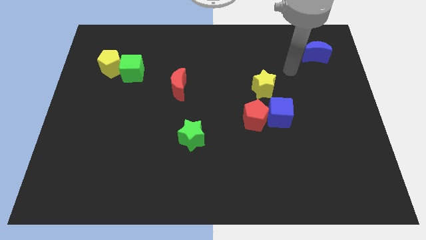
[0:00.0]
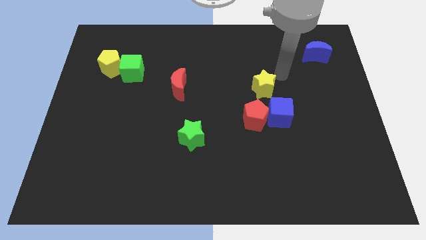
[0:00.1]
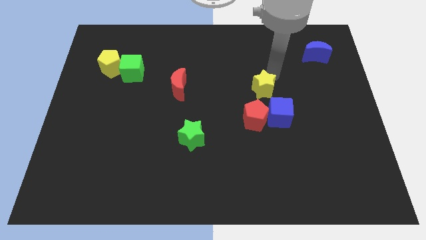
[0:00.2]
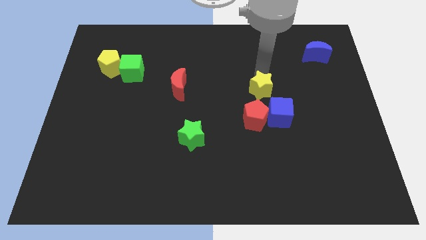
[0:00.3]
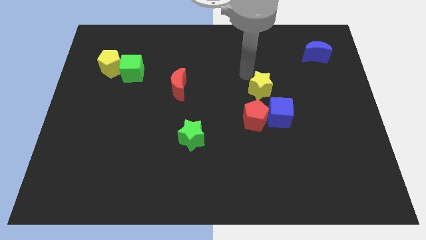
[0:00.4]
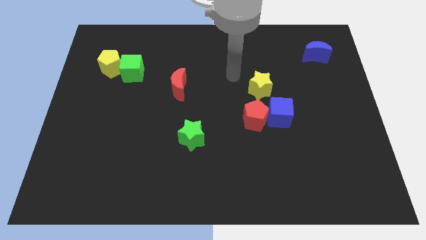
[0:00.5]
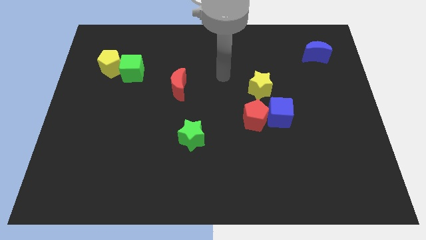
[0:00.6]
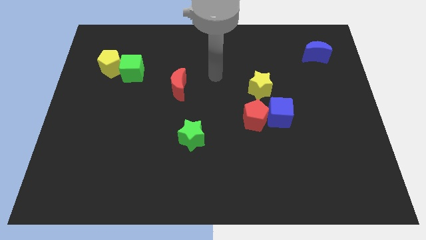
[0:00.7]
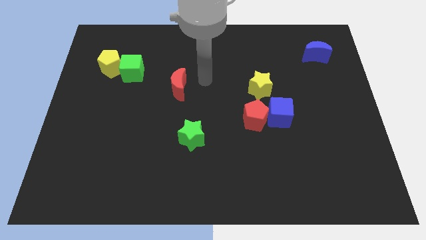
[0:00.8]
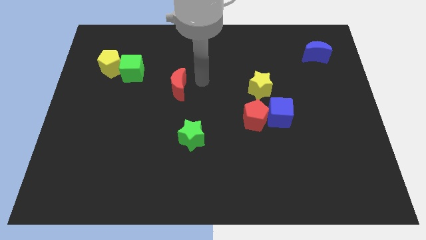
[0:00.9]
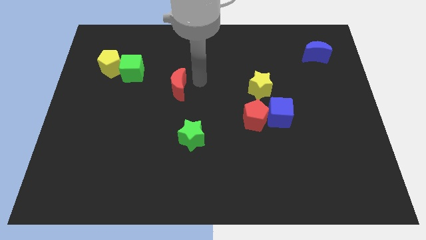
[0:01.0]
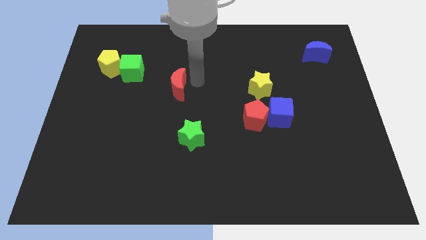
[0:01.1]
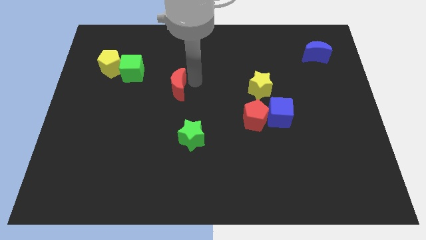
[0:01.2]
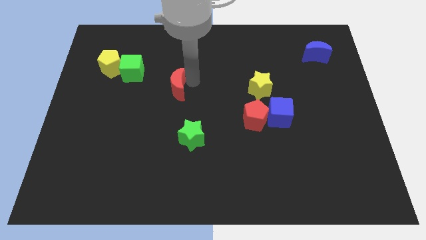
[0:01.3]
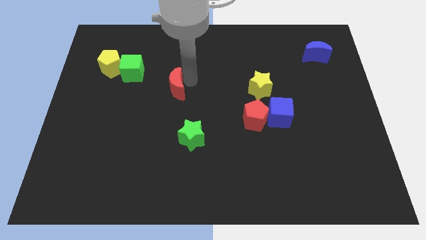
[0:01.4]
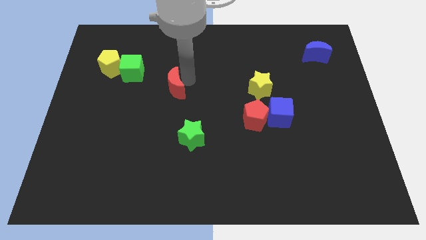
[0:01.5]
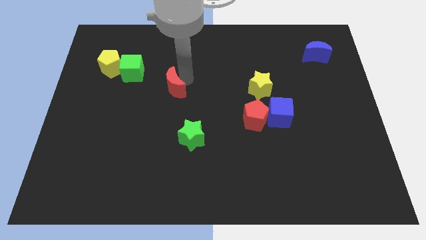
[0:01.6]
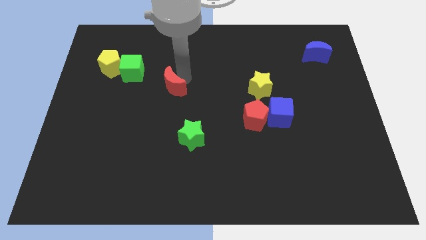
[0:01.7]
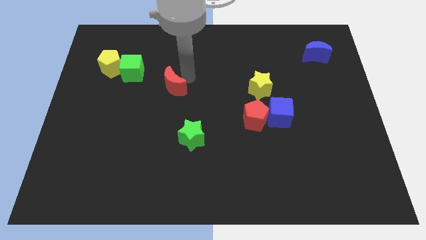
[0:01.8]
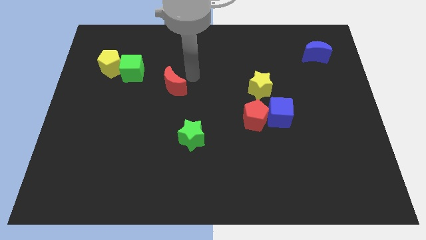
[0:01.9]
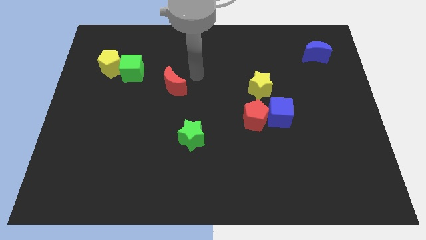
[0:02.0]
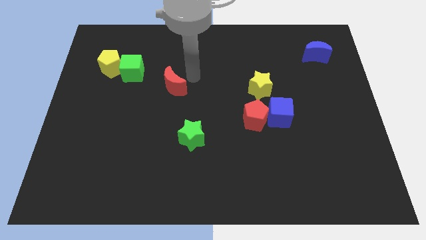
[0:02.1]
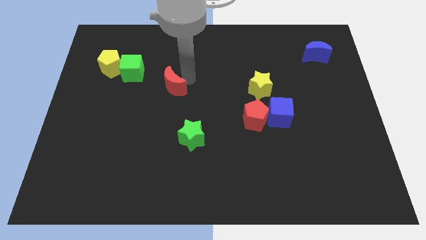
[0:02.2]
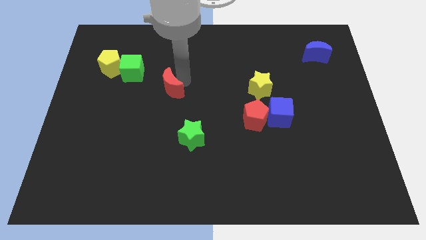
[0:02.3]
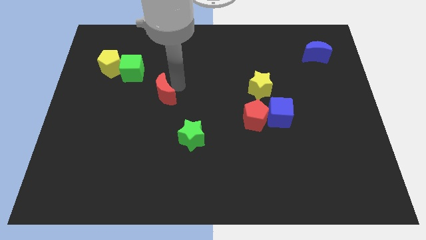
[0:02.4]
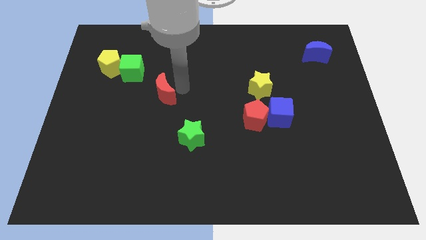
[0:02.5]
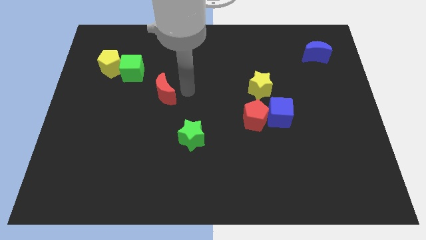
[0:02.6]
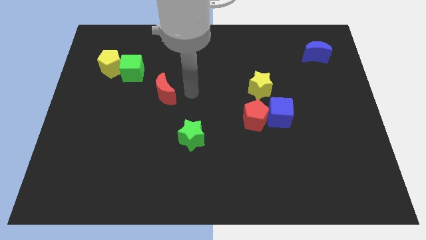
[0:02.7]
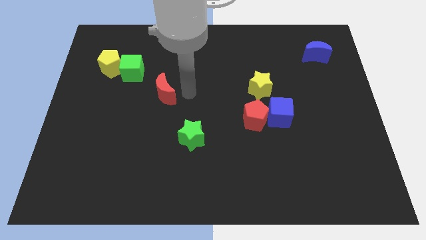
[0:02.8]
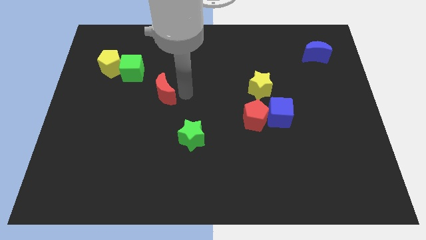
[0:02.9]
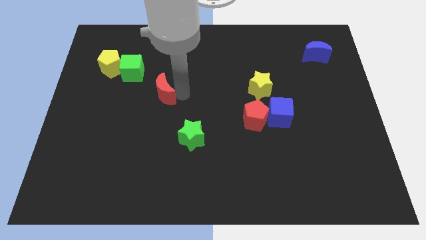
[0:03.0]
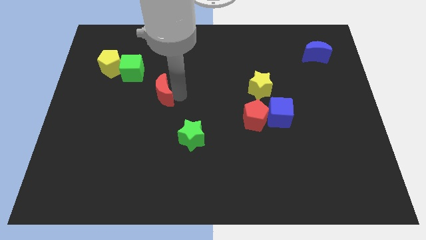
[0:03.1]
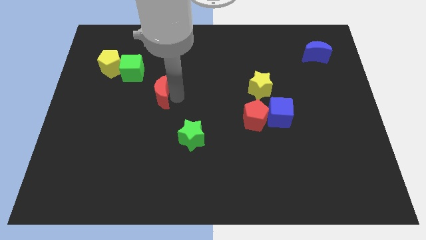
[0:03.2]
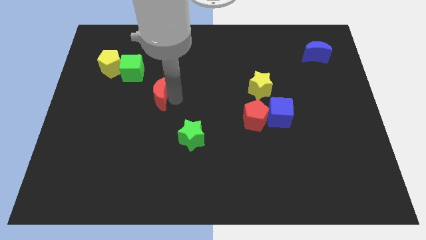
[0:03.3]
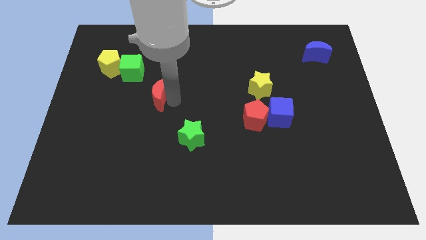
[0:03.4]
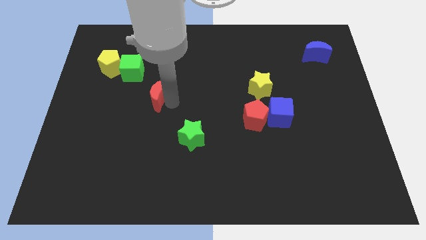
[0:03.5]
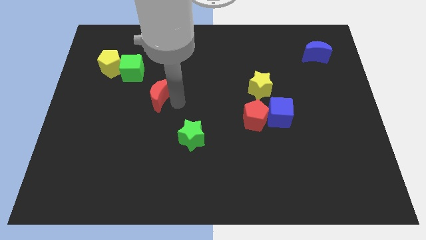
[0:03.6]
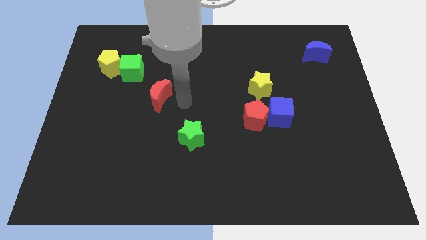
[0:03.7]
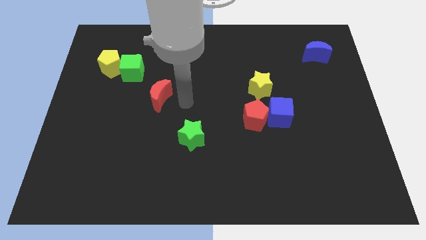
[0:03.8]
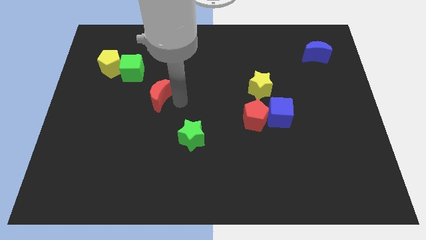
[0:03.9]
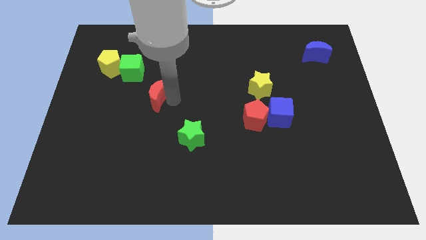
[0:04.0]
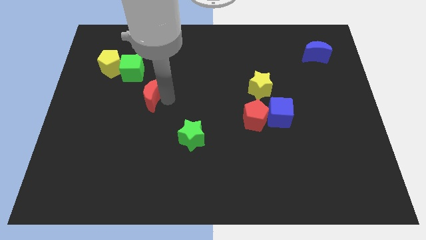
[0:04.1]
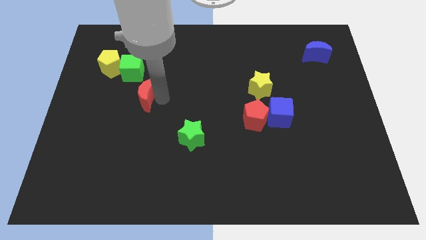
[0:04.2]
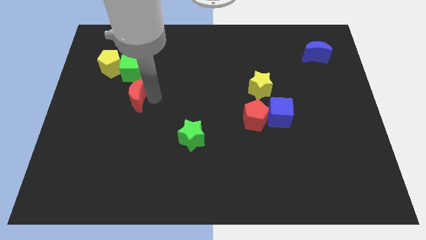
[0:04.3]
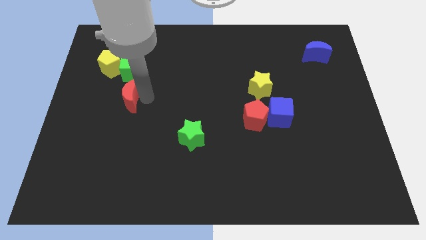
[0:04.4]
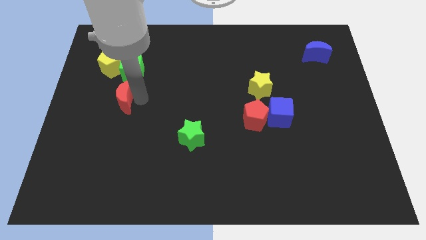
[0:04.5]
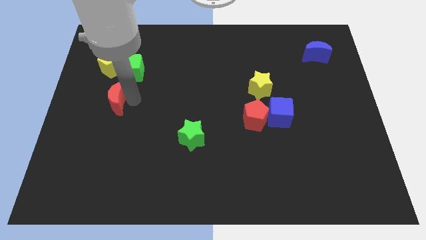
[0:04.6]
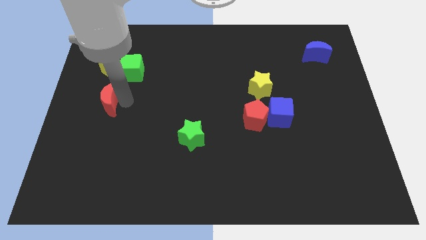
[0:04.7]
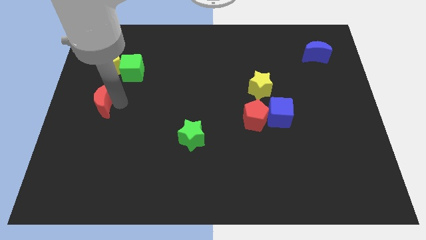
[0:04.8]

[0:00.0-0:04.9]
move the red moon to the left side of the board

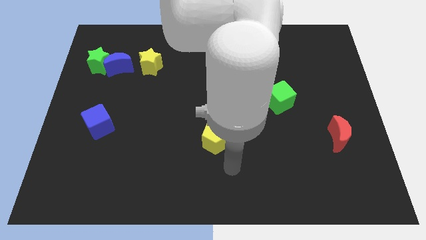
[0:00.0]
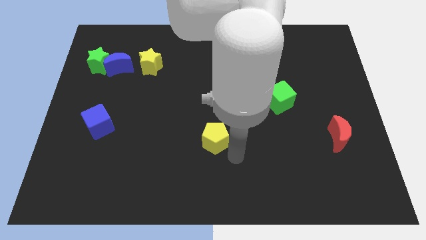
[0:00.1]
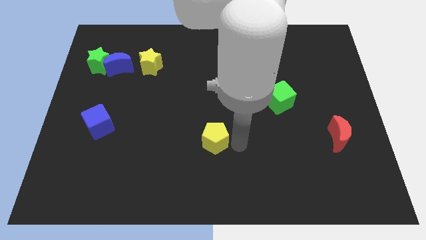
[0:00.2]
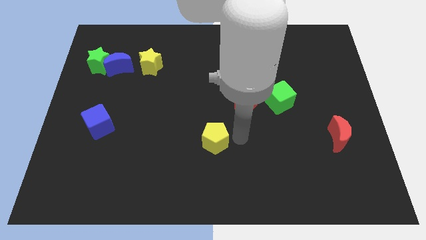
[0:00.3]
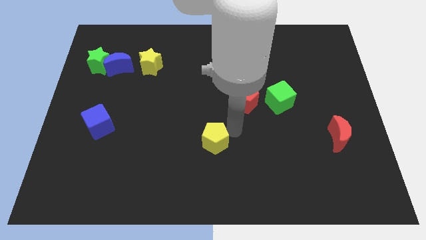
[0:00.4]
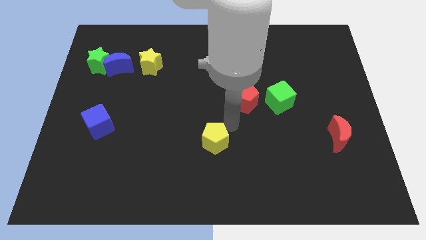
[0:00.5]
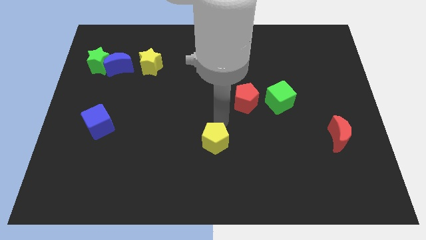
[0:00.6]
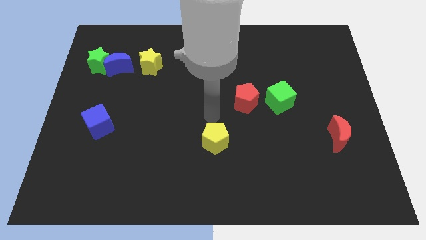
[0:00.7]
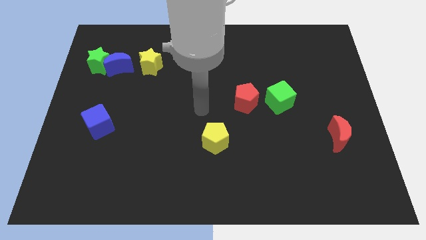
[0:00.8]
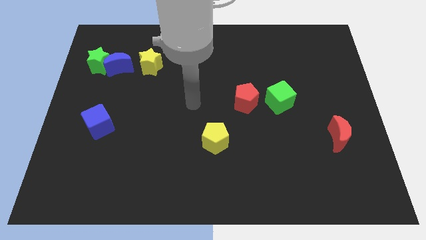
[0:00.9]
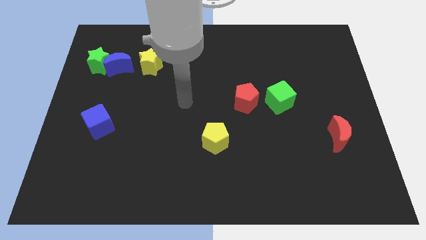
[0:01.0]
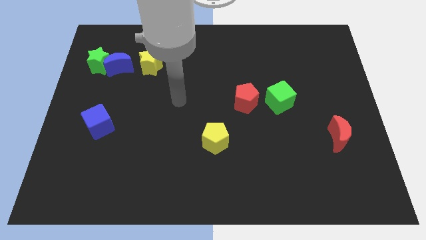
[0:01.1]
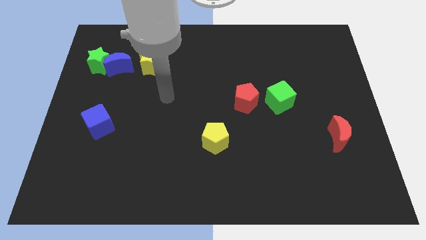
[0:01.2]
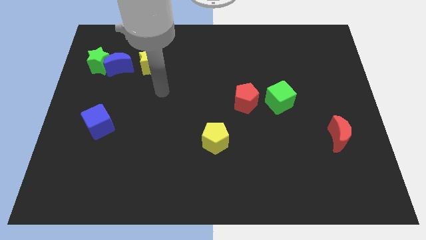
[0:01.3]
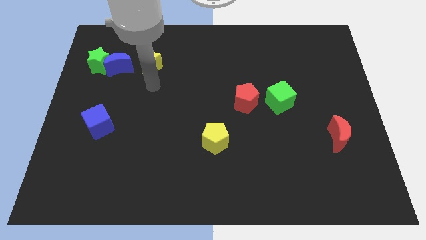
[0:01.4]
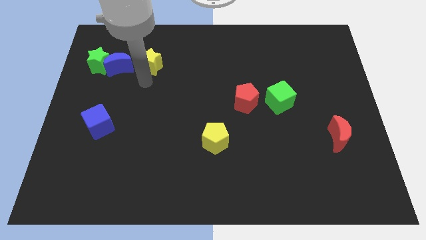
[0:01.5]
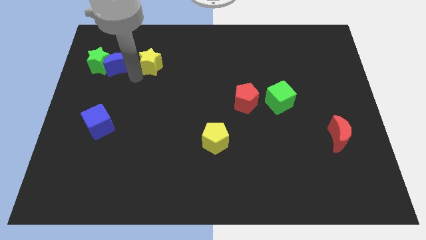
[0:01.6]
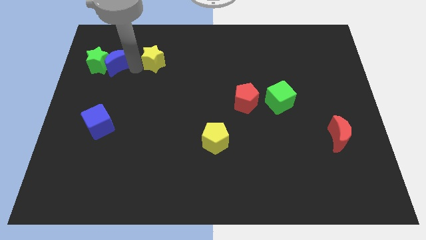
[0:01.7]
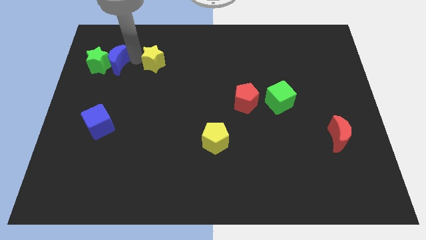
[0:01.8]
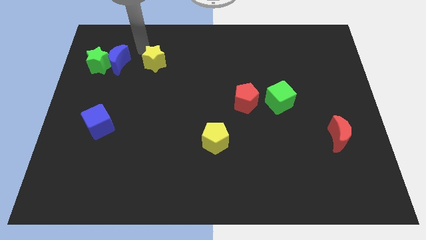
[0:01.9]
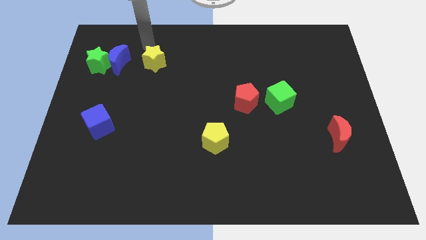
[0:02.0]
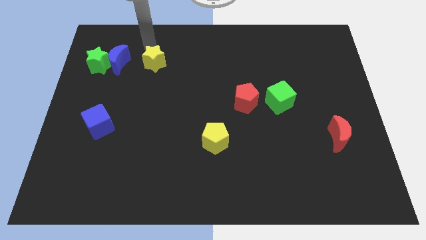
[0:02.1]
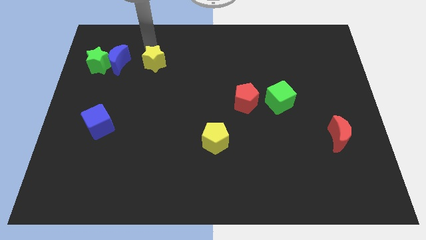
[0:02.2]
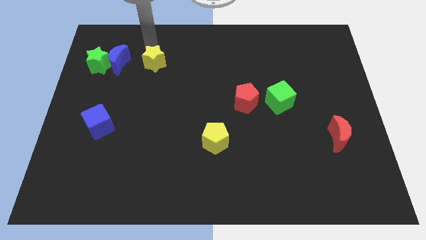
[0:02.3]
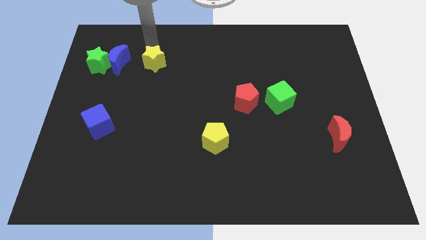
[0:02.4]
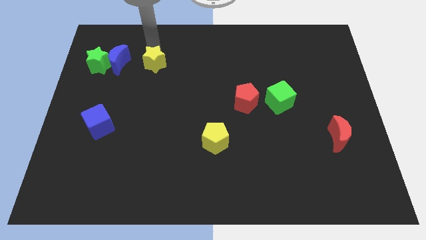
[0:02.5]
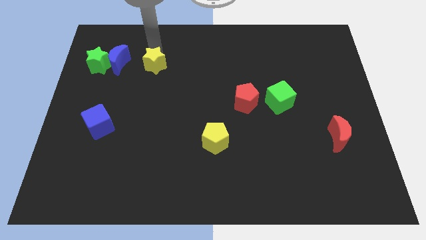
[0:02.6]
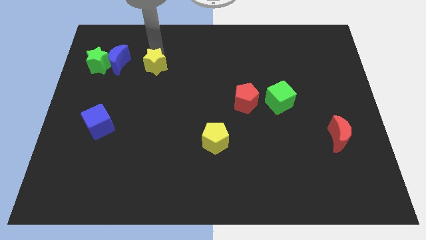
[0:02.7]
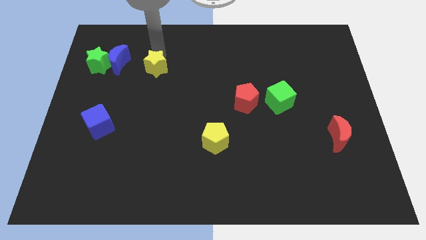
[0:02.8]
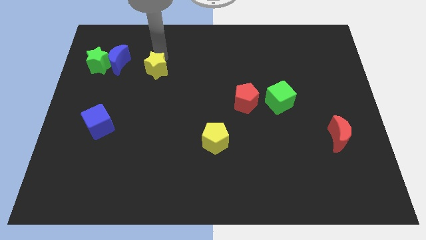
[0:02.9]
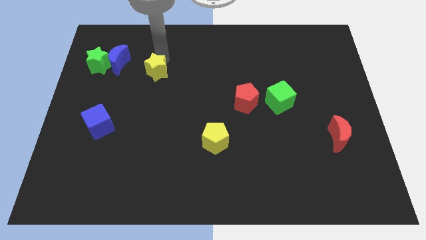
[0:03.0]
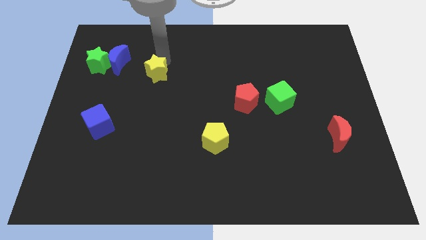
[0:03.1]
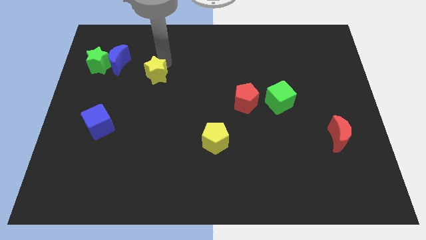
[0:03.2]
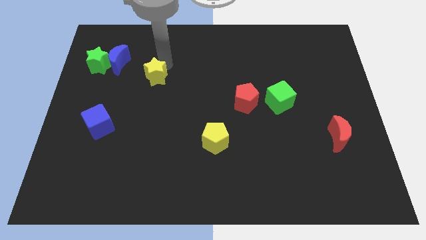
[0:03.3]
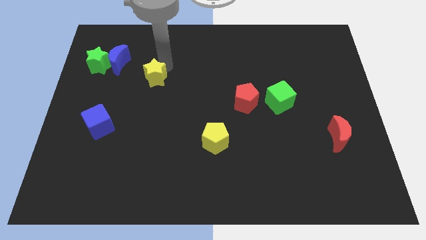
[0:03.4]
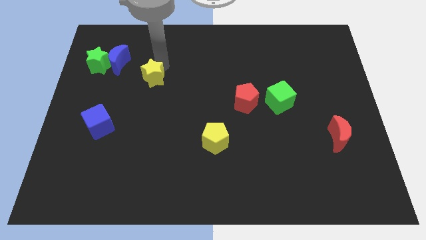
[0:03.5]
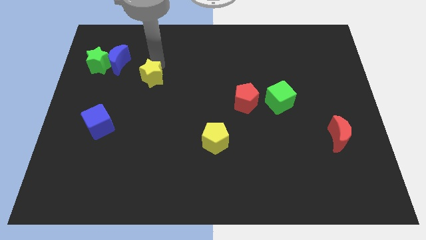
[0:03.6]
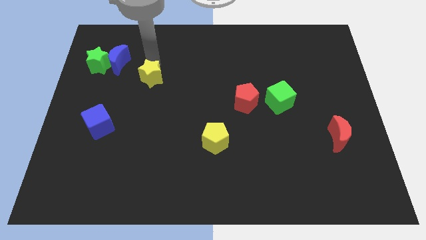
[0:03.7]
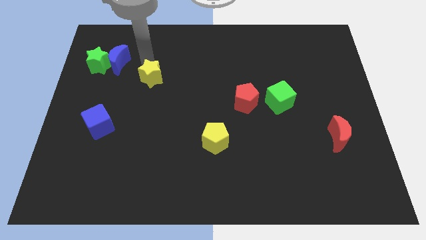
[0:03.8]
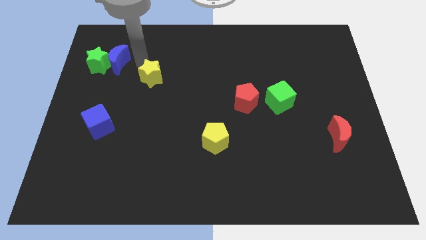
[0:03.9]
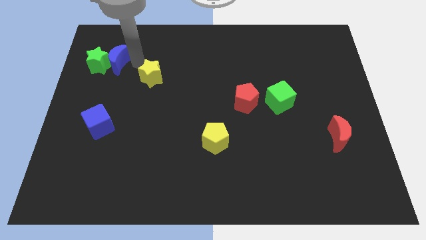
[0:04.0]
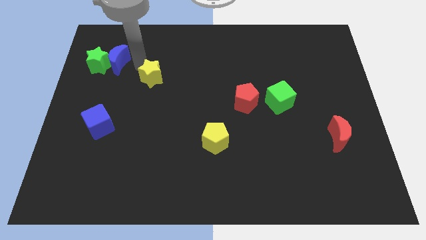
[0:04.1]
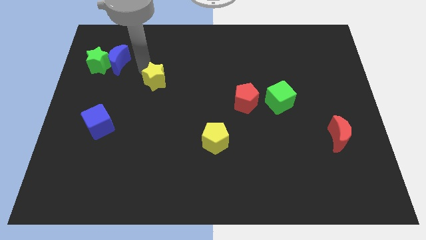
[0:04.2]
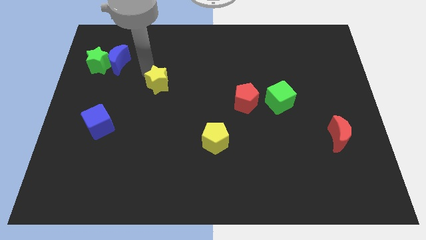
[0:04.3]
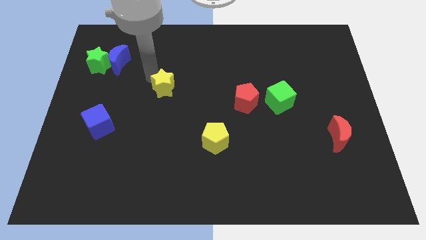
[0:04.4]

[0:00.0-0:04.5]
slide the yellow star to the center
